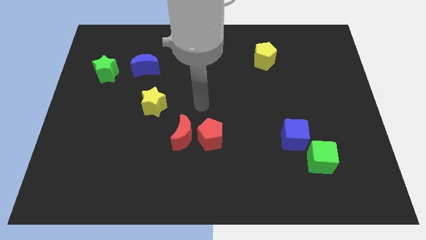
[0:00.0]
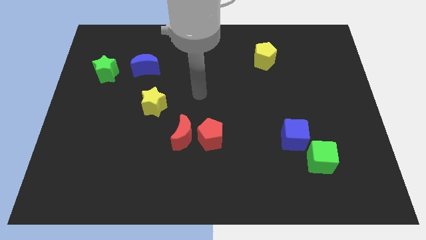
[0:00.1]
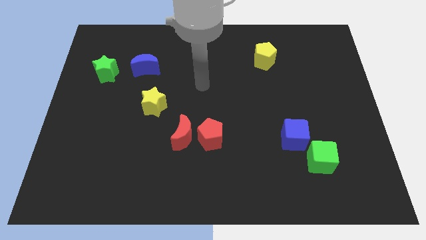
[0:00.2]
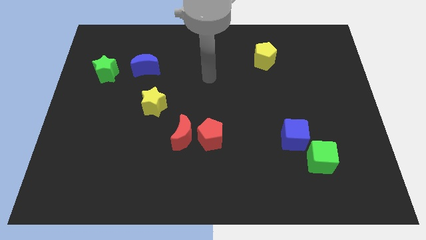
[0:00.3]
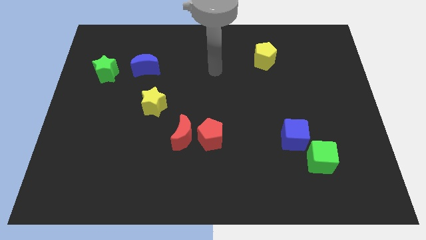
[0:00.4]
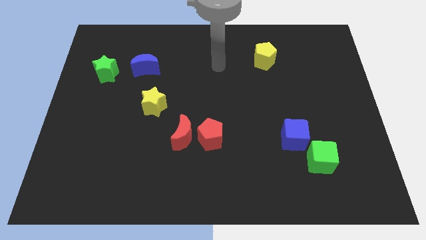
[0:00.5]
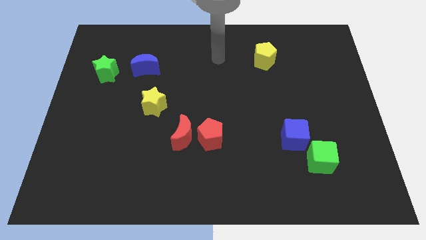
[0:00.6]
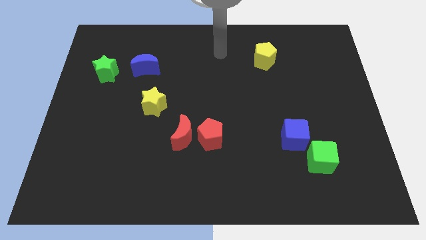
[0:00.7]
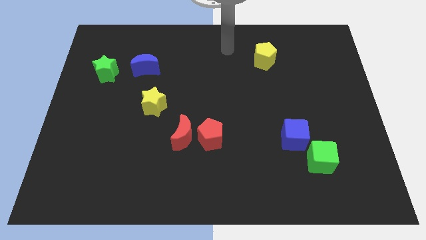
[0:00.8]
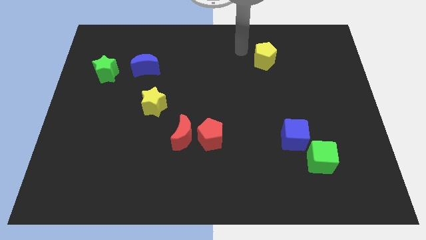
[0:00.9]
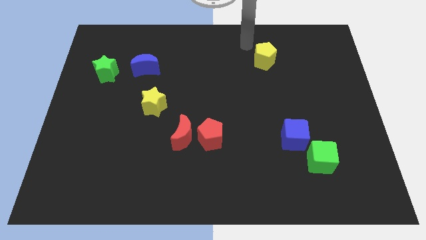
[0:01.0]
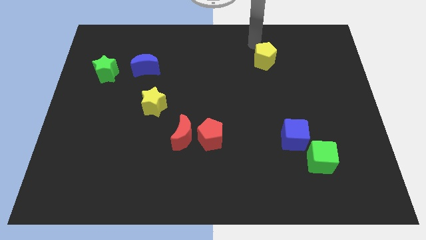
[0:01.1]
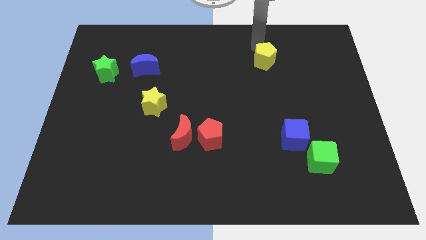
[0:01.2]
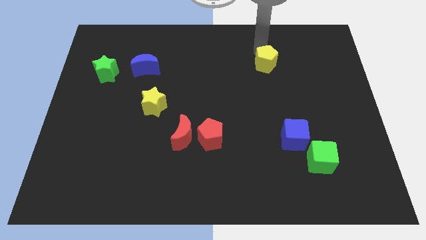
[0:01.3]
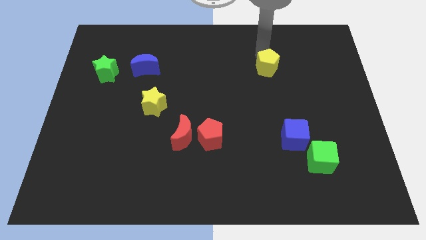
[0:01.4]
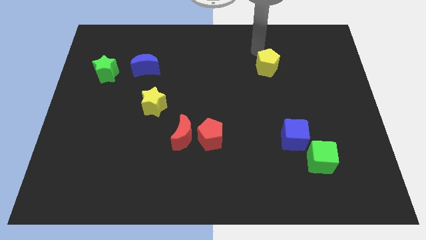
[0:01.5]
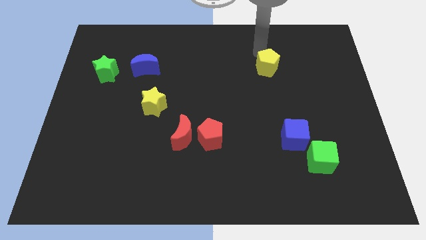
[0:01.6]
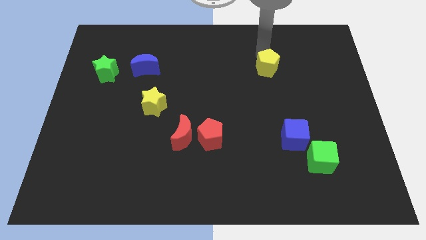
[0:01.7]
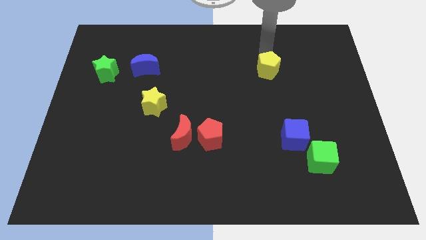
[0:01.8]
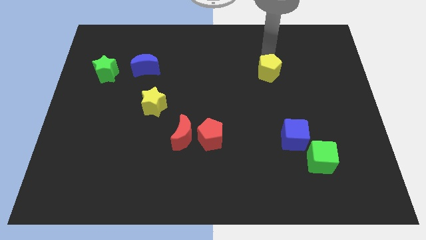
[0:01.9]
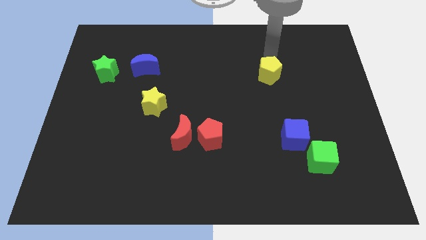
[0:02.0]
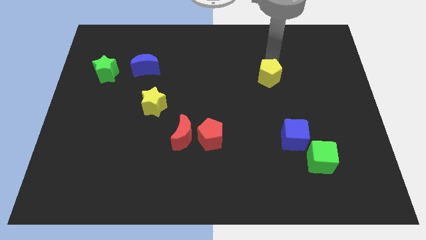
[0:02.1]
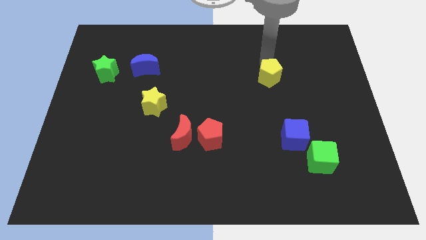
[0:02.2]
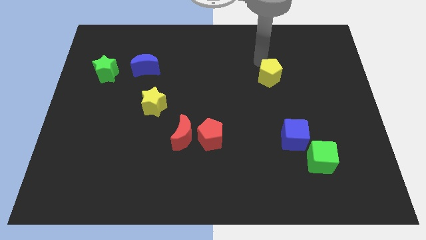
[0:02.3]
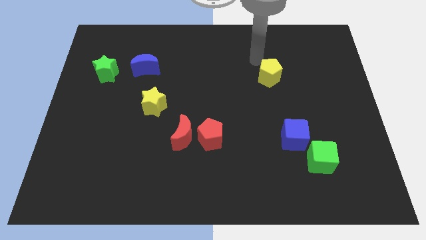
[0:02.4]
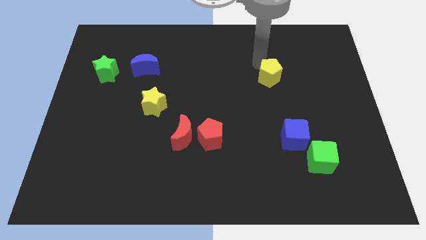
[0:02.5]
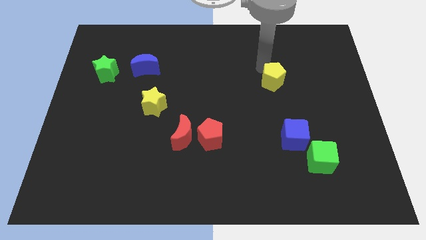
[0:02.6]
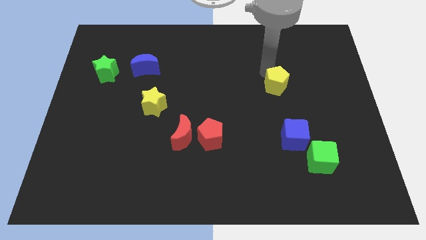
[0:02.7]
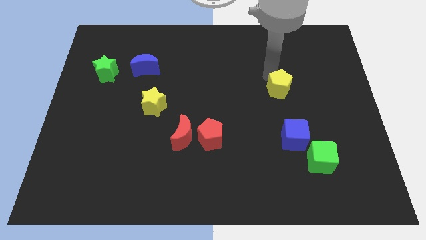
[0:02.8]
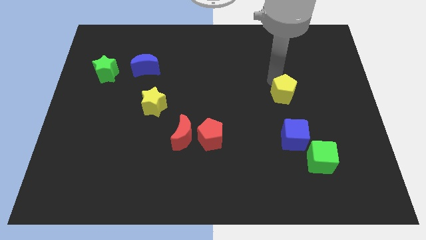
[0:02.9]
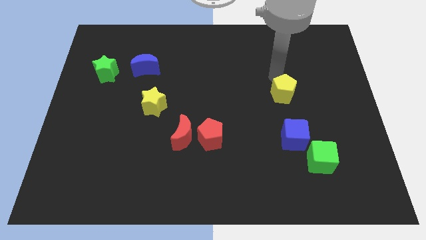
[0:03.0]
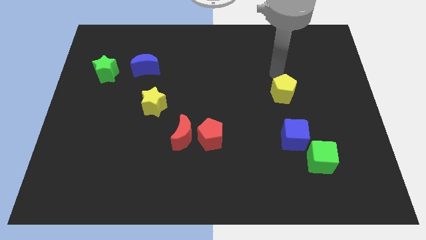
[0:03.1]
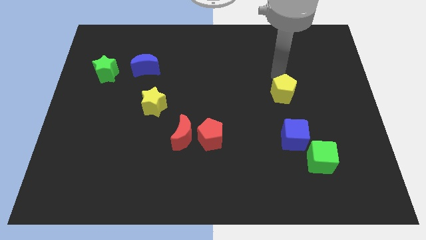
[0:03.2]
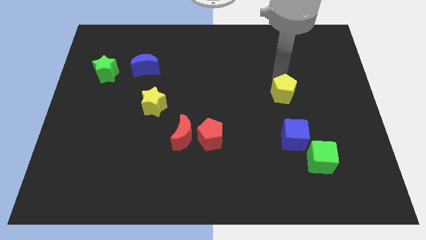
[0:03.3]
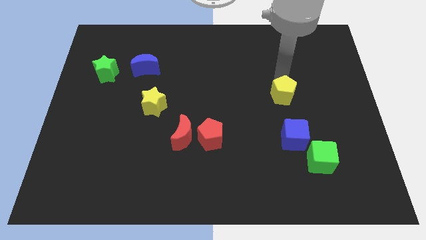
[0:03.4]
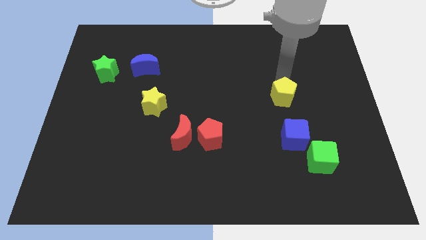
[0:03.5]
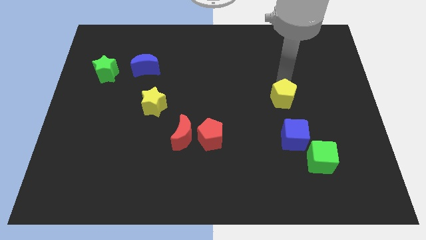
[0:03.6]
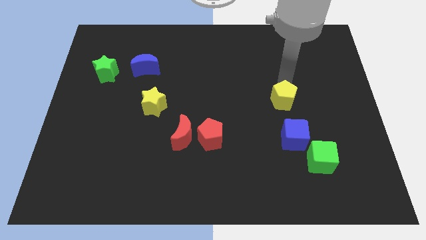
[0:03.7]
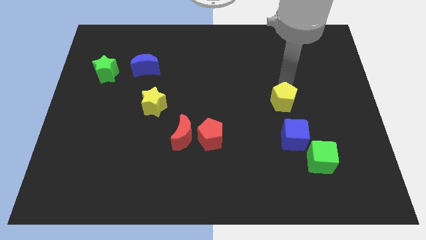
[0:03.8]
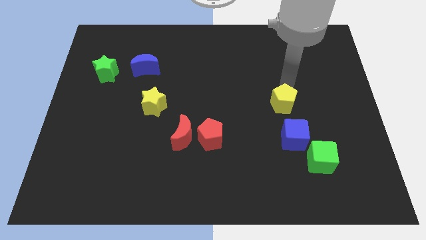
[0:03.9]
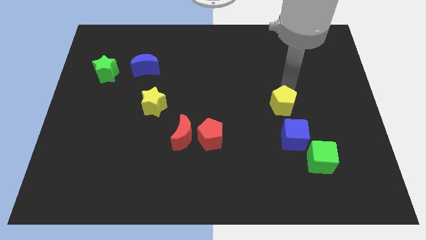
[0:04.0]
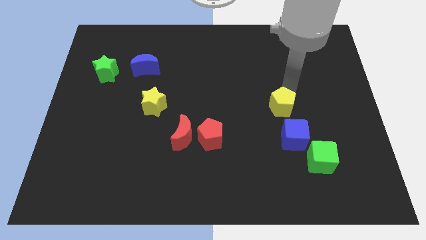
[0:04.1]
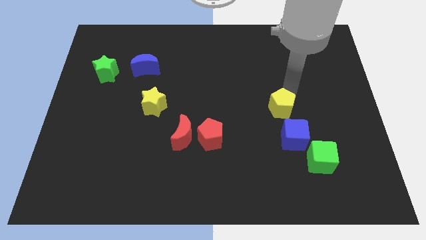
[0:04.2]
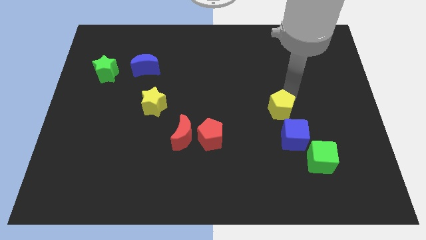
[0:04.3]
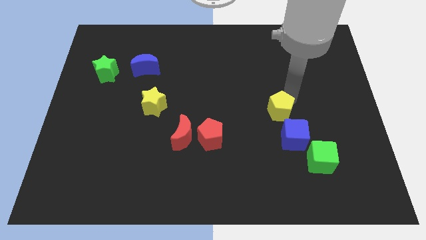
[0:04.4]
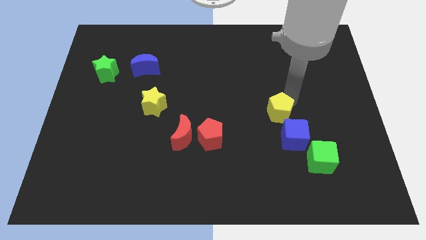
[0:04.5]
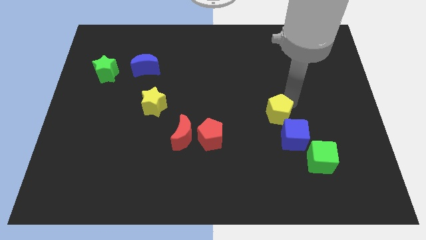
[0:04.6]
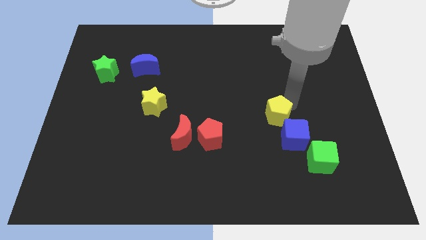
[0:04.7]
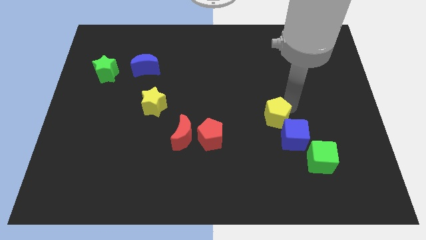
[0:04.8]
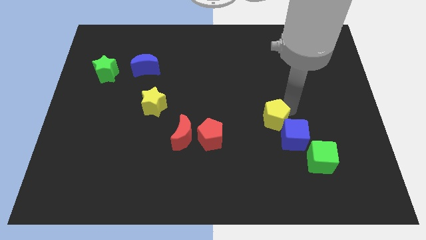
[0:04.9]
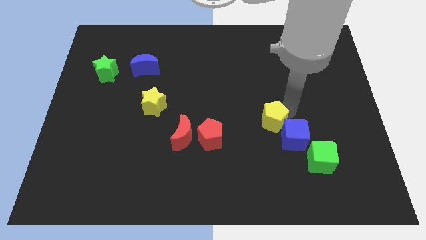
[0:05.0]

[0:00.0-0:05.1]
slide the yellow pentagon next to the blue cube
